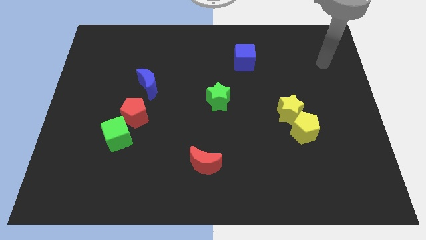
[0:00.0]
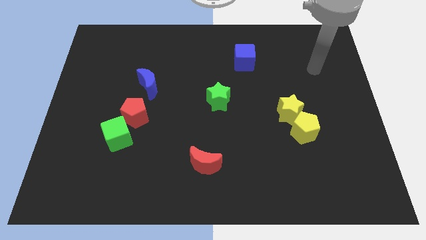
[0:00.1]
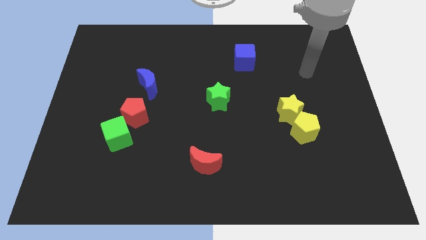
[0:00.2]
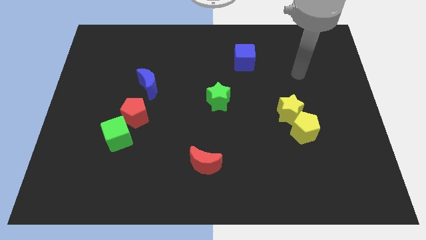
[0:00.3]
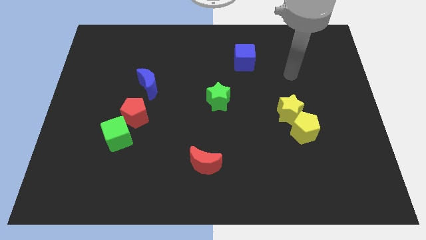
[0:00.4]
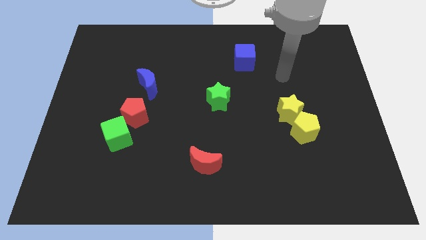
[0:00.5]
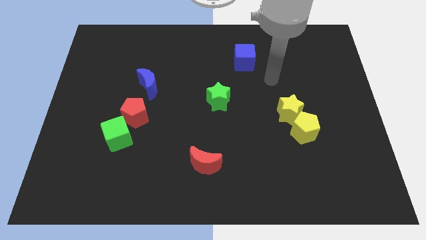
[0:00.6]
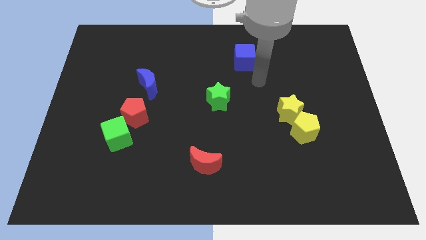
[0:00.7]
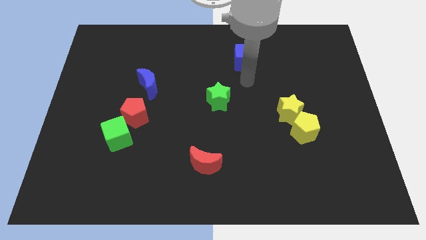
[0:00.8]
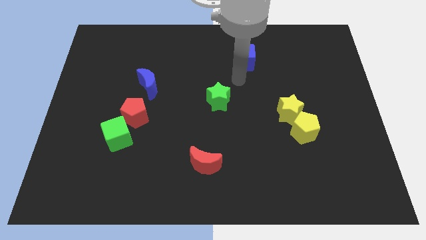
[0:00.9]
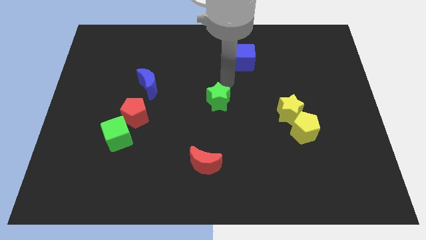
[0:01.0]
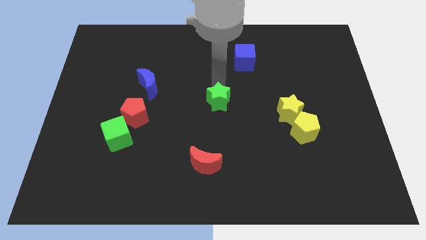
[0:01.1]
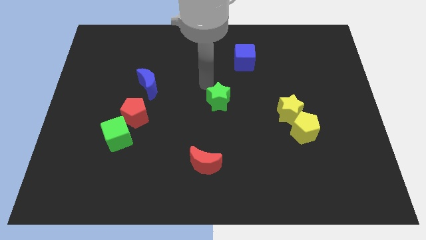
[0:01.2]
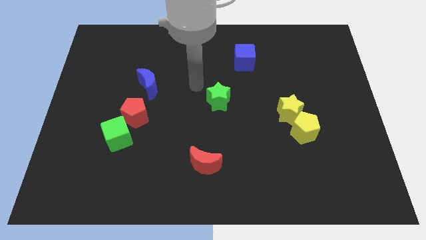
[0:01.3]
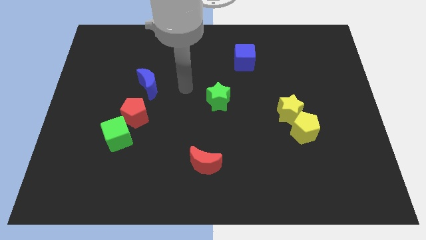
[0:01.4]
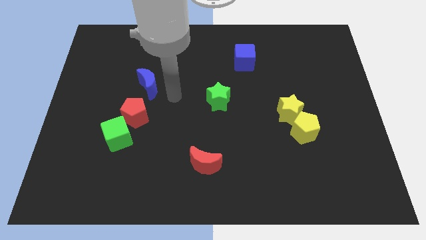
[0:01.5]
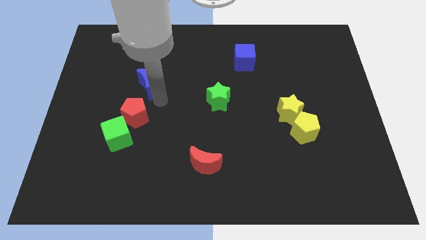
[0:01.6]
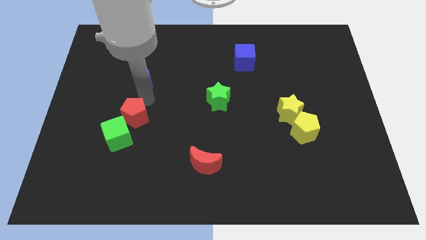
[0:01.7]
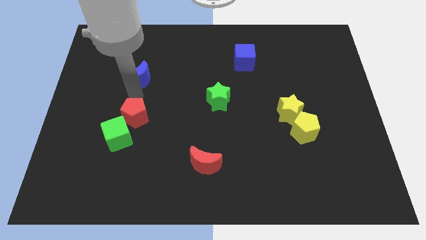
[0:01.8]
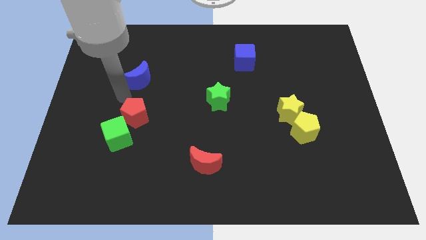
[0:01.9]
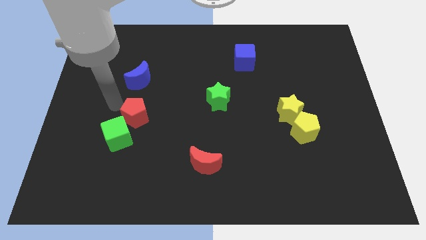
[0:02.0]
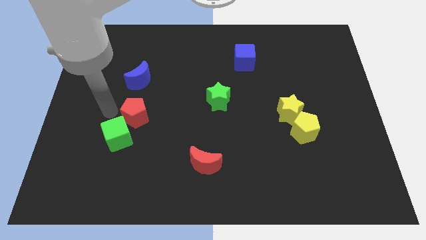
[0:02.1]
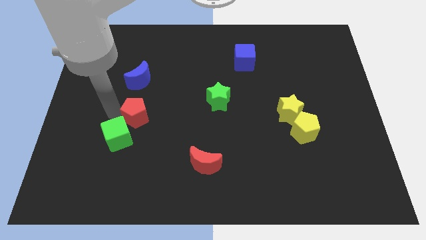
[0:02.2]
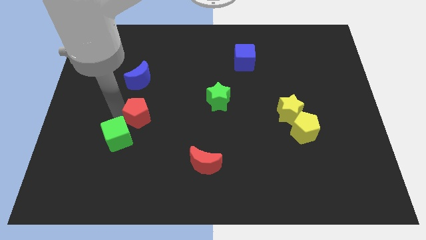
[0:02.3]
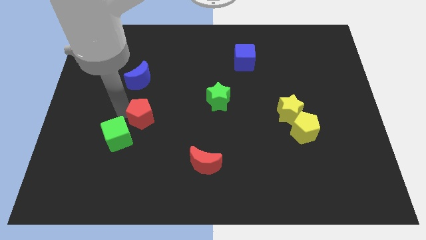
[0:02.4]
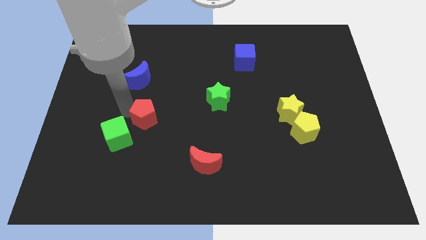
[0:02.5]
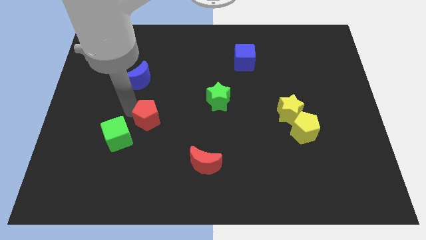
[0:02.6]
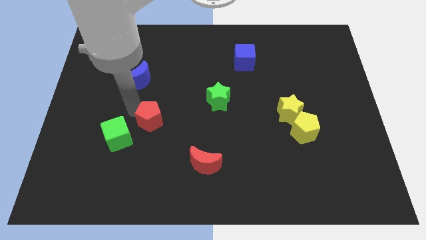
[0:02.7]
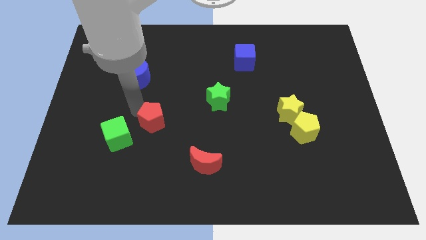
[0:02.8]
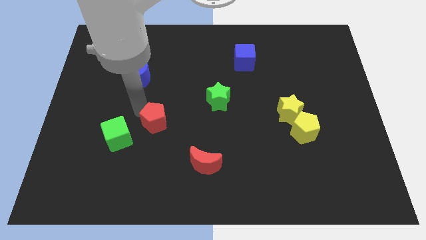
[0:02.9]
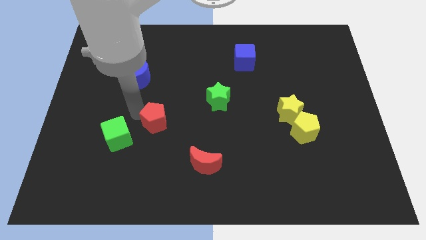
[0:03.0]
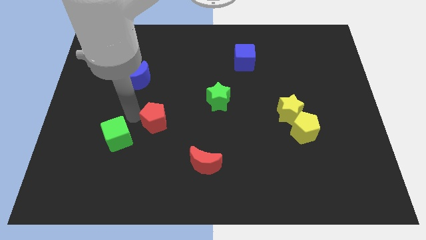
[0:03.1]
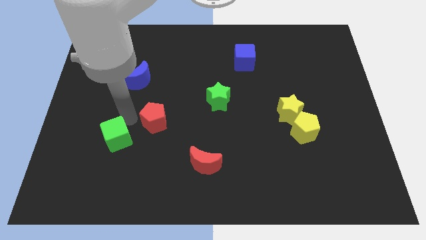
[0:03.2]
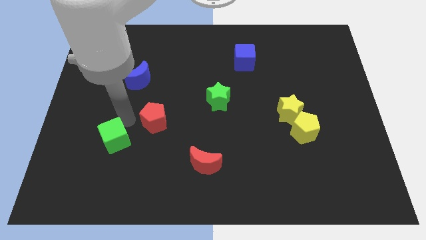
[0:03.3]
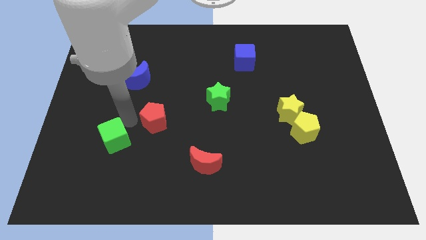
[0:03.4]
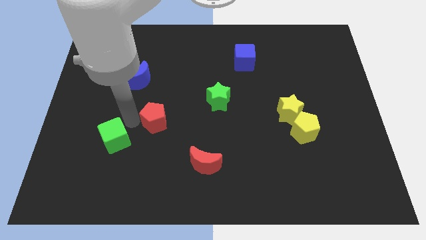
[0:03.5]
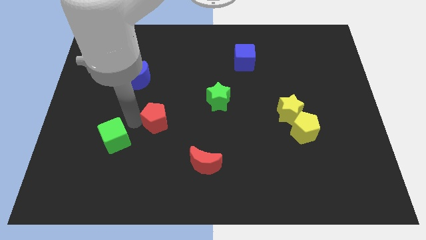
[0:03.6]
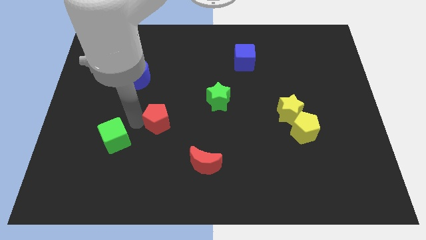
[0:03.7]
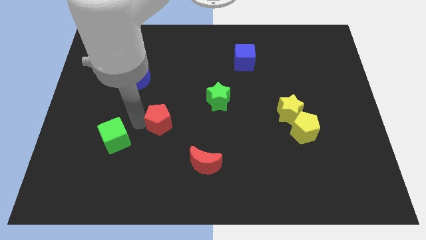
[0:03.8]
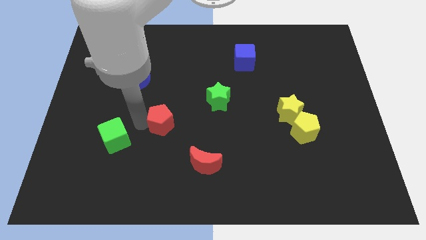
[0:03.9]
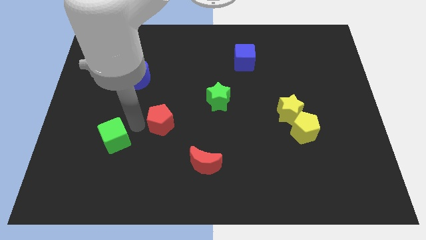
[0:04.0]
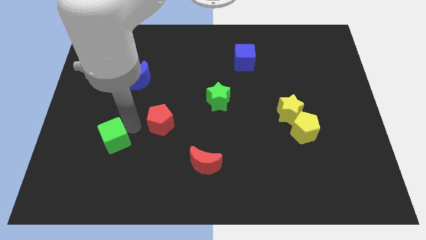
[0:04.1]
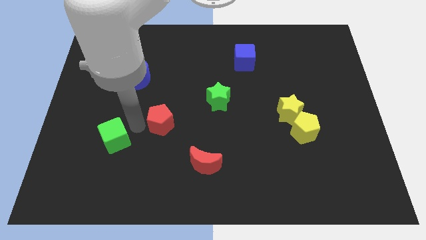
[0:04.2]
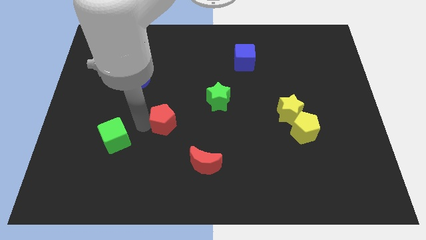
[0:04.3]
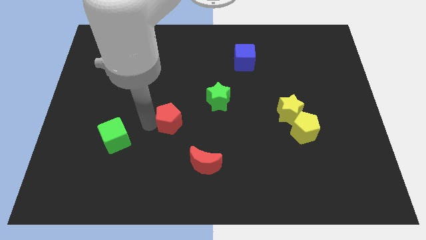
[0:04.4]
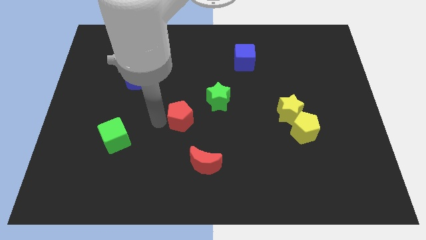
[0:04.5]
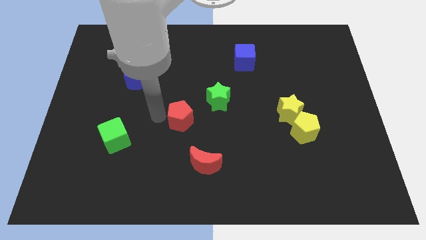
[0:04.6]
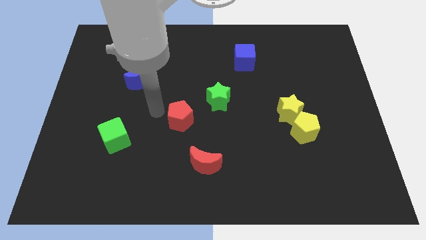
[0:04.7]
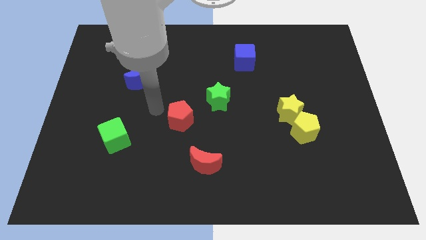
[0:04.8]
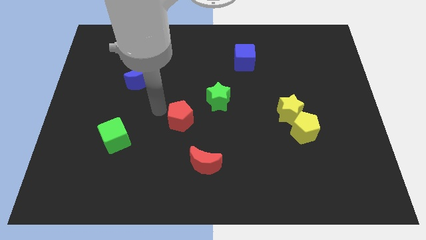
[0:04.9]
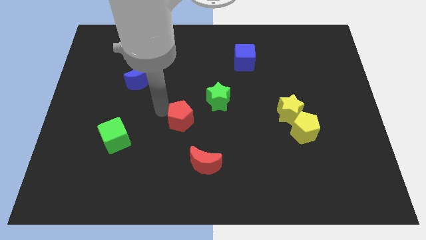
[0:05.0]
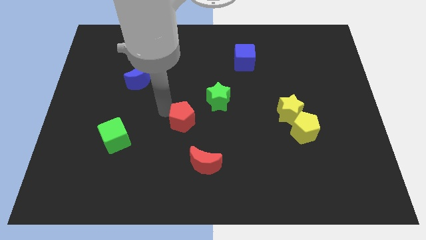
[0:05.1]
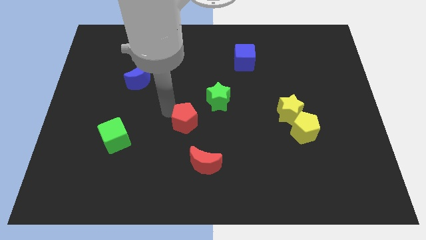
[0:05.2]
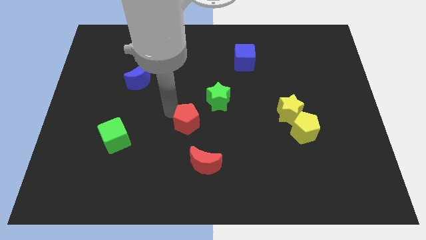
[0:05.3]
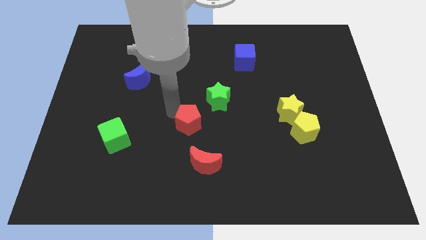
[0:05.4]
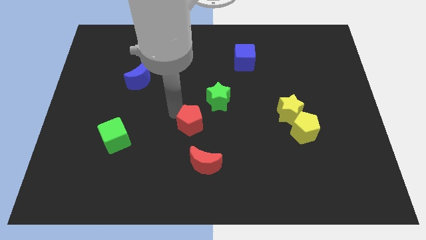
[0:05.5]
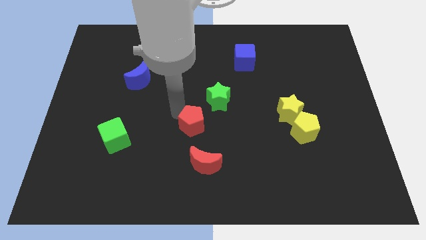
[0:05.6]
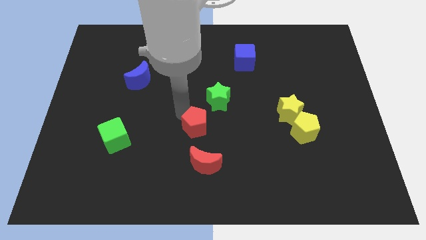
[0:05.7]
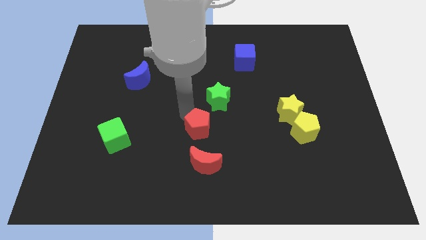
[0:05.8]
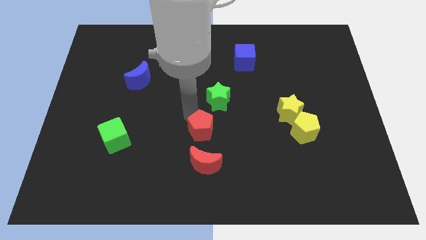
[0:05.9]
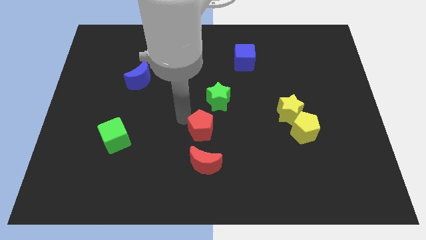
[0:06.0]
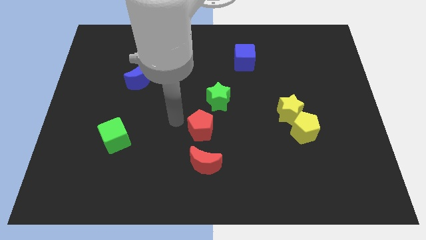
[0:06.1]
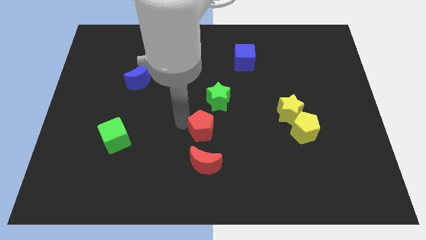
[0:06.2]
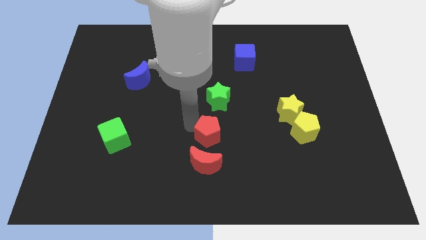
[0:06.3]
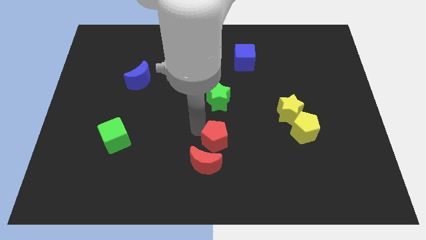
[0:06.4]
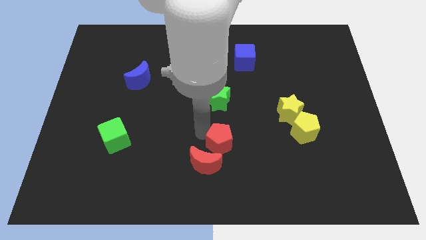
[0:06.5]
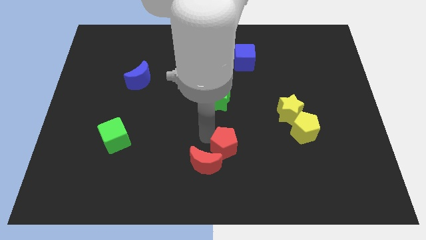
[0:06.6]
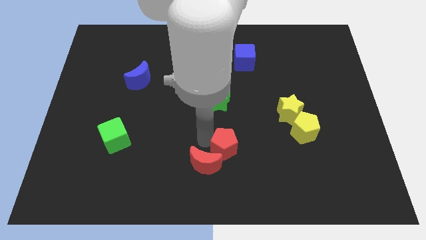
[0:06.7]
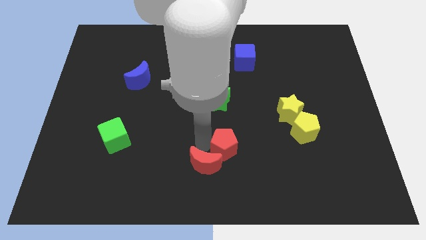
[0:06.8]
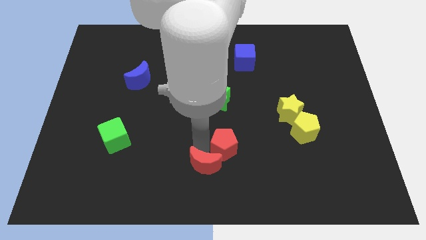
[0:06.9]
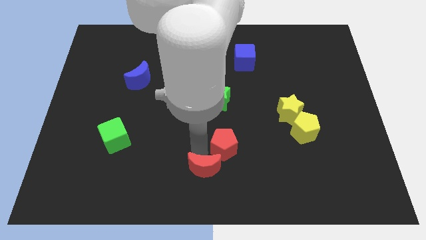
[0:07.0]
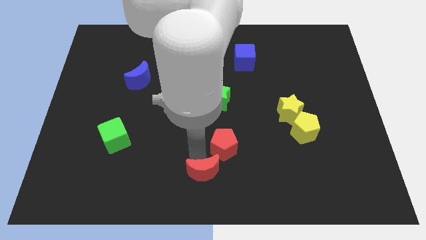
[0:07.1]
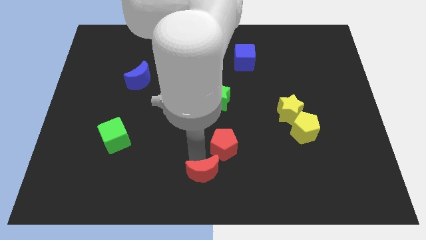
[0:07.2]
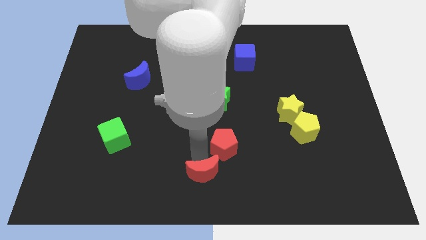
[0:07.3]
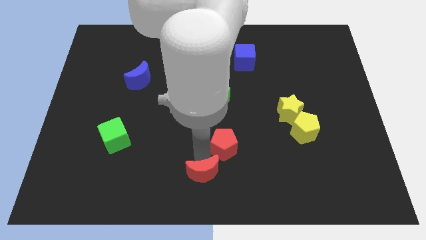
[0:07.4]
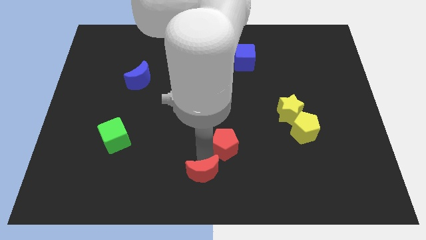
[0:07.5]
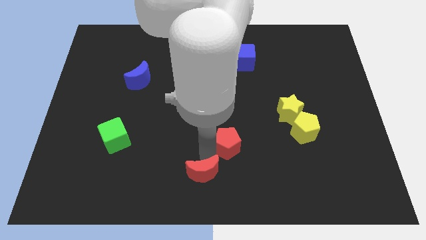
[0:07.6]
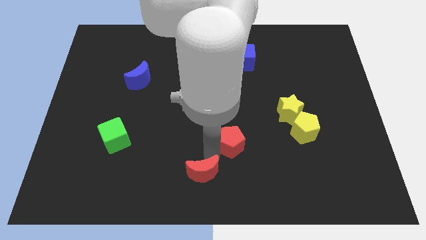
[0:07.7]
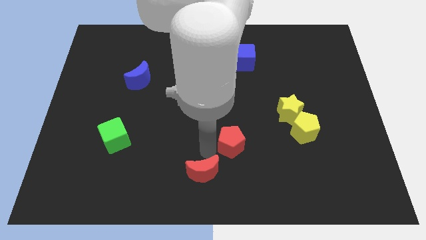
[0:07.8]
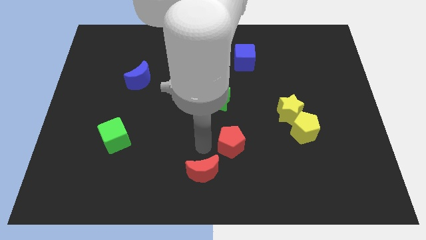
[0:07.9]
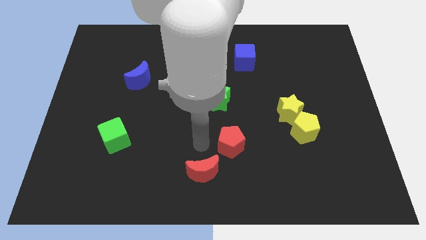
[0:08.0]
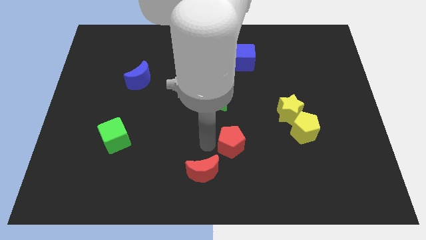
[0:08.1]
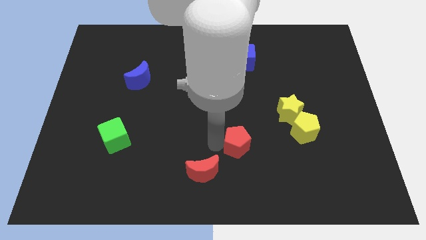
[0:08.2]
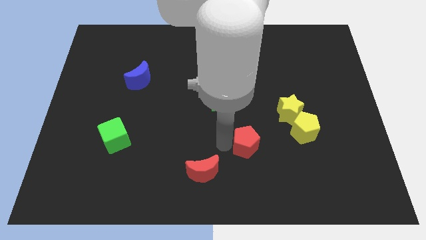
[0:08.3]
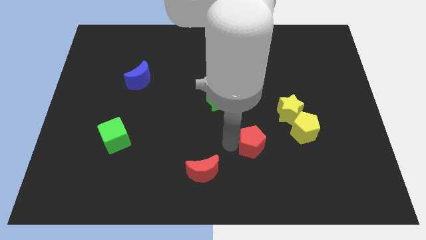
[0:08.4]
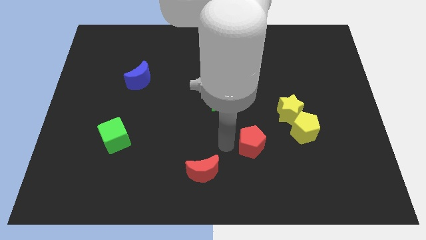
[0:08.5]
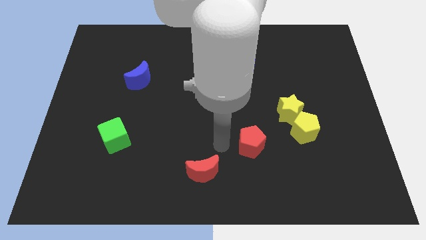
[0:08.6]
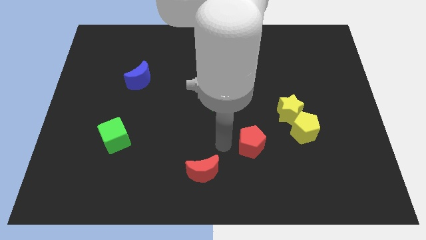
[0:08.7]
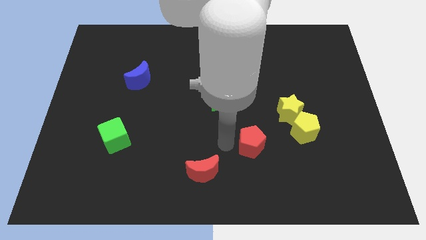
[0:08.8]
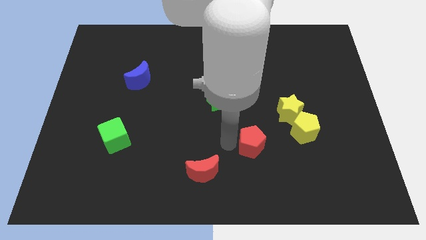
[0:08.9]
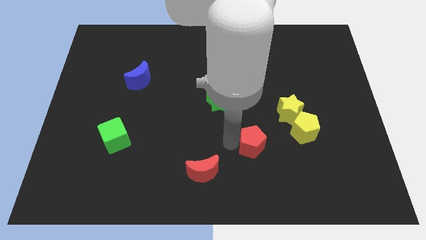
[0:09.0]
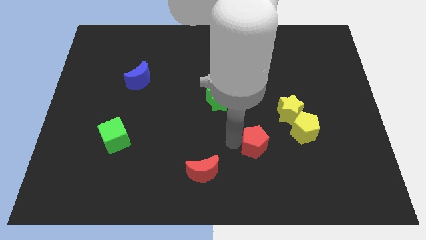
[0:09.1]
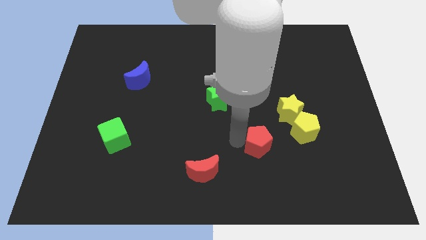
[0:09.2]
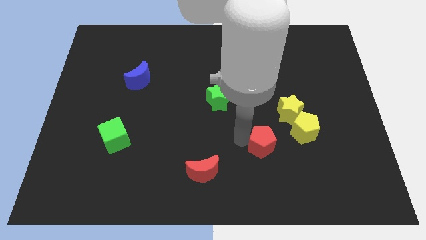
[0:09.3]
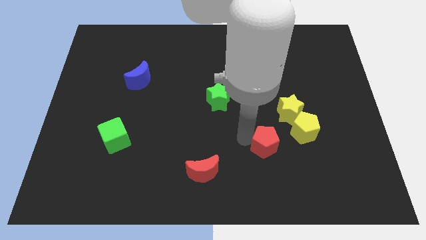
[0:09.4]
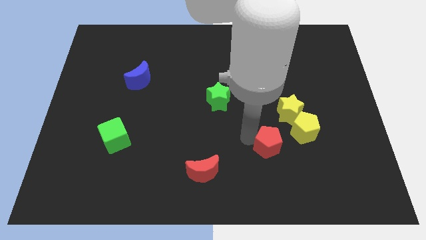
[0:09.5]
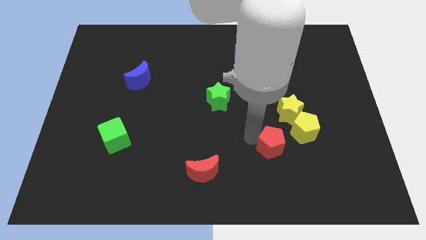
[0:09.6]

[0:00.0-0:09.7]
put the red pentagon below the yellow star
